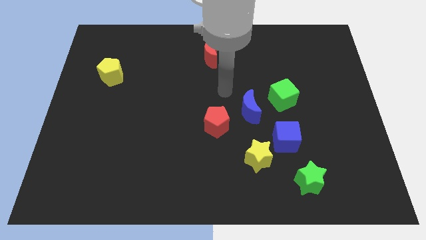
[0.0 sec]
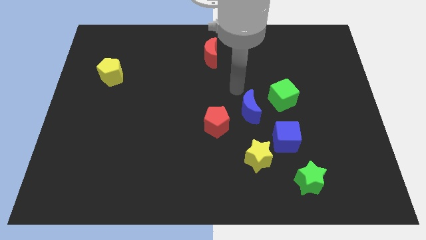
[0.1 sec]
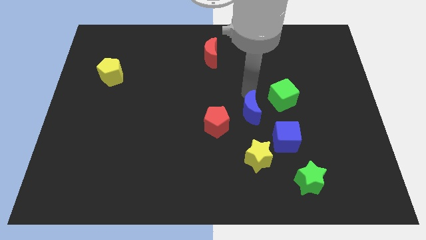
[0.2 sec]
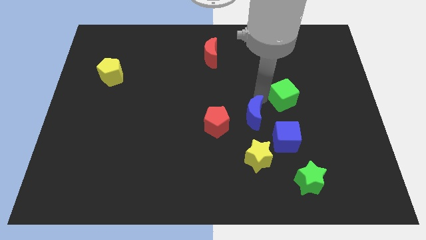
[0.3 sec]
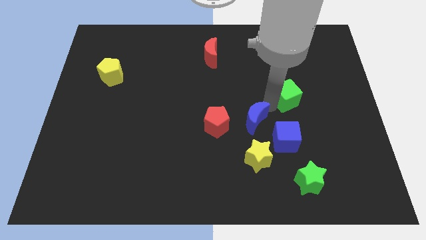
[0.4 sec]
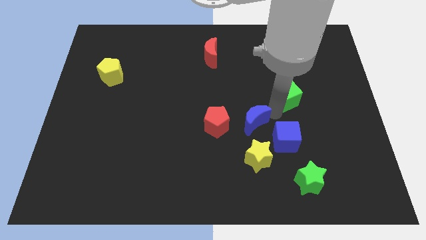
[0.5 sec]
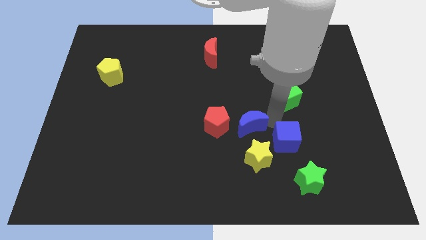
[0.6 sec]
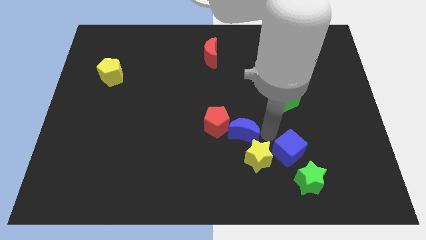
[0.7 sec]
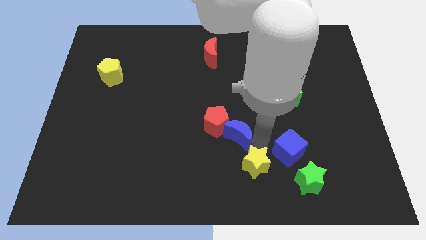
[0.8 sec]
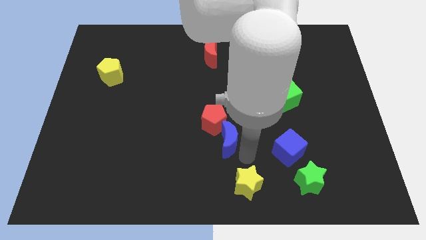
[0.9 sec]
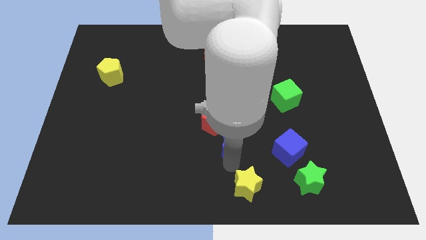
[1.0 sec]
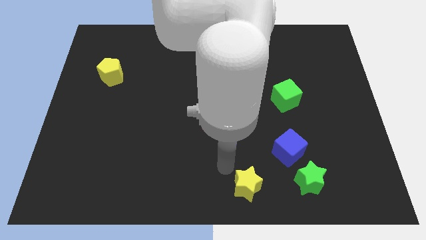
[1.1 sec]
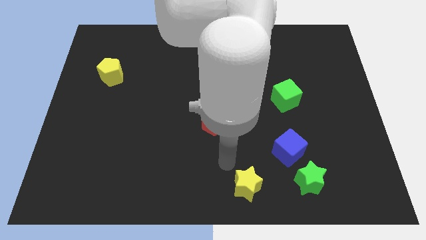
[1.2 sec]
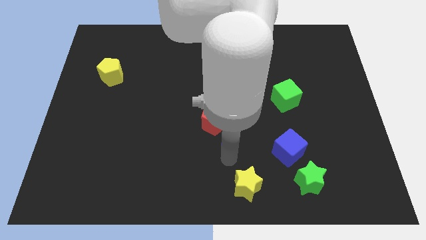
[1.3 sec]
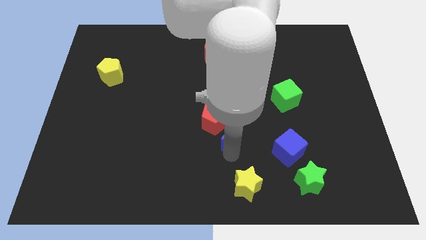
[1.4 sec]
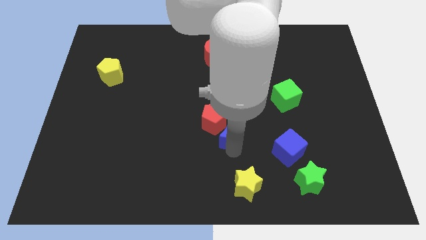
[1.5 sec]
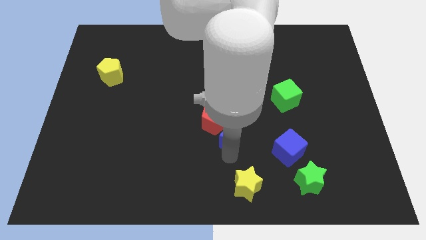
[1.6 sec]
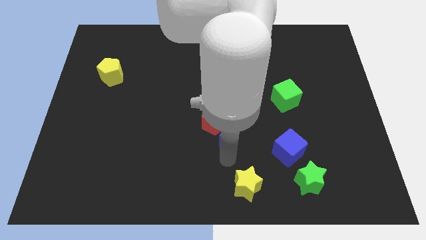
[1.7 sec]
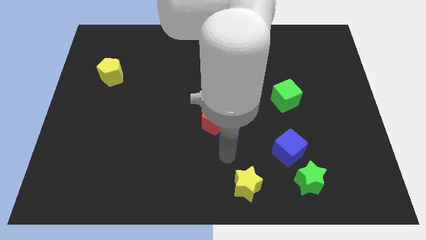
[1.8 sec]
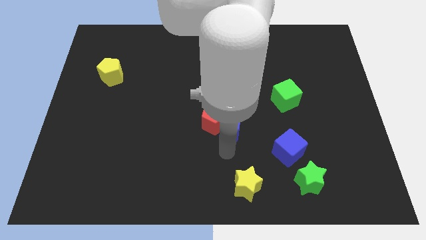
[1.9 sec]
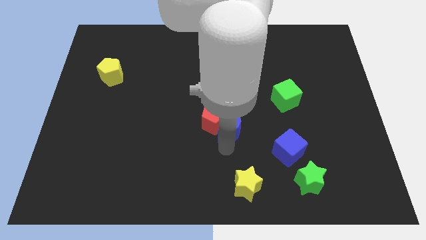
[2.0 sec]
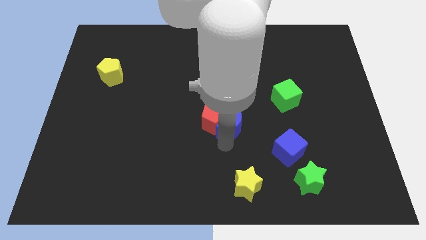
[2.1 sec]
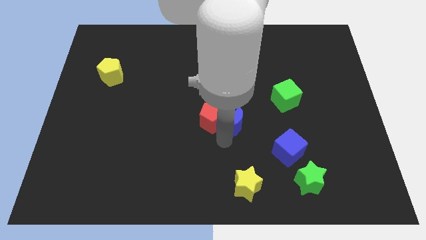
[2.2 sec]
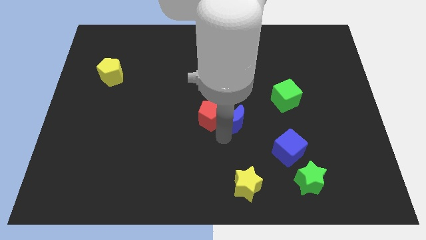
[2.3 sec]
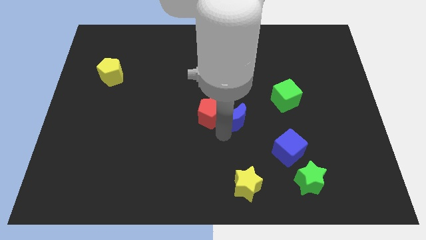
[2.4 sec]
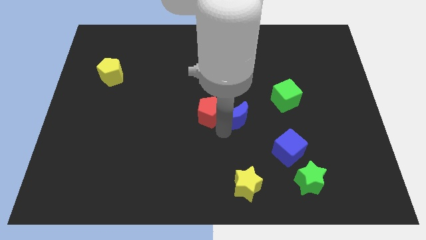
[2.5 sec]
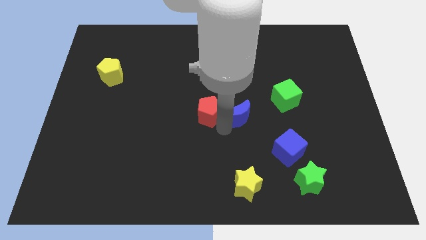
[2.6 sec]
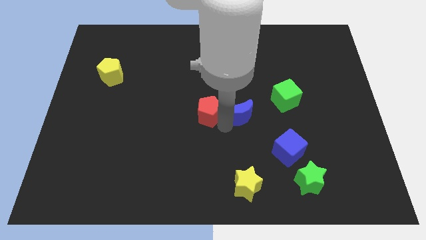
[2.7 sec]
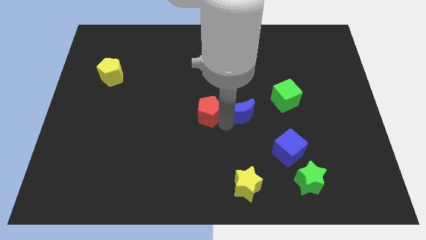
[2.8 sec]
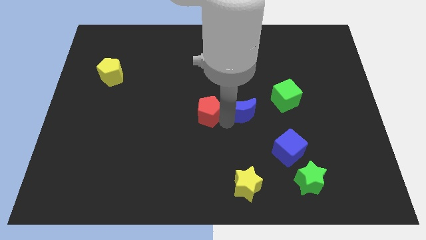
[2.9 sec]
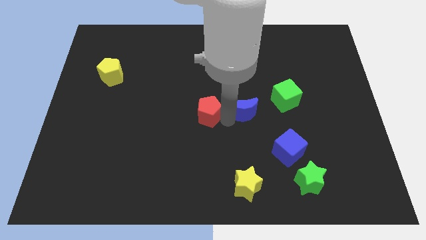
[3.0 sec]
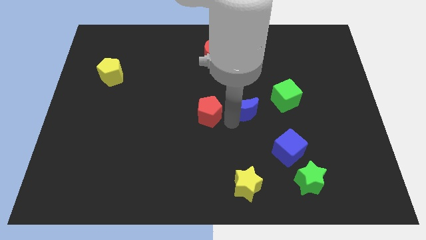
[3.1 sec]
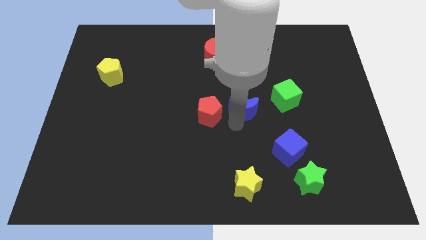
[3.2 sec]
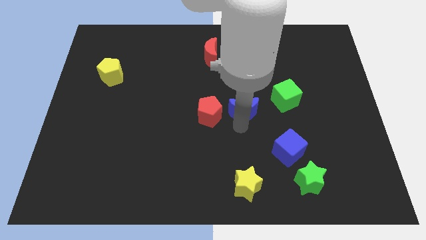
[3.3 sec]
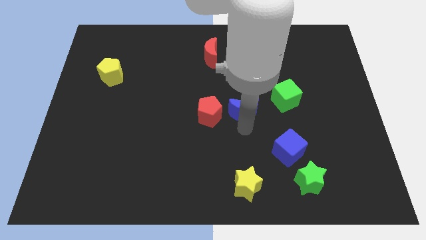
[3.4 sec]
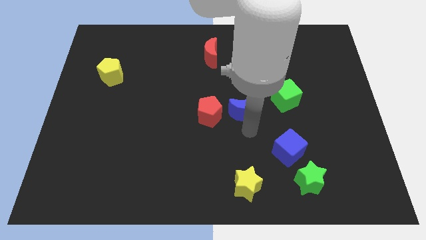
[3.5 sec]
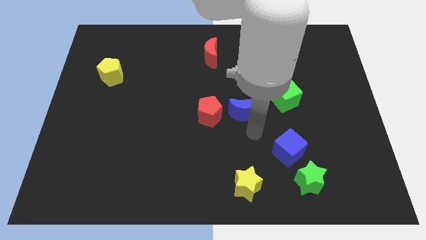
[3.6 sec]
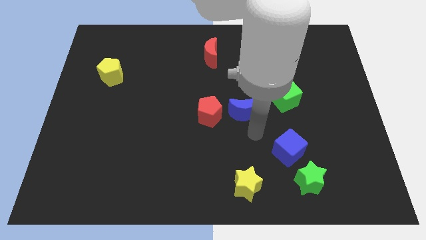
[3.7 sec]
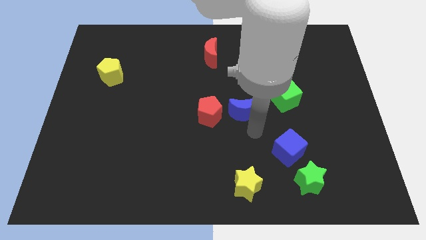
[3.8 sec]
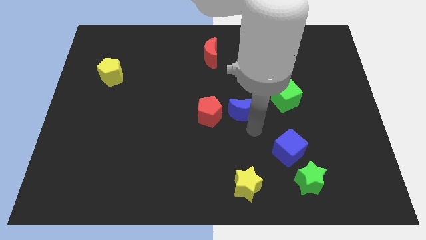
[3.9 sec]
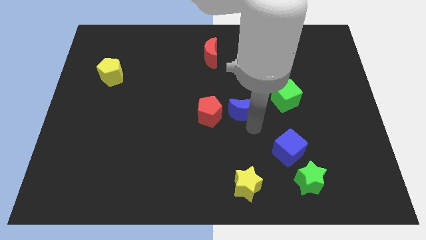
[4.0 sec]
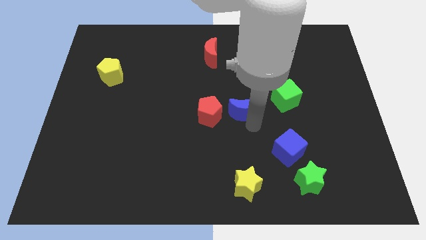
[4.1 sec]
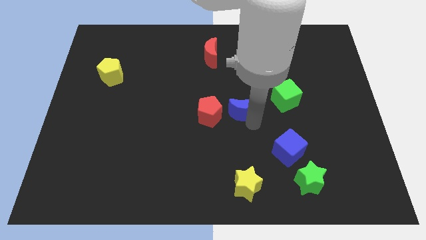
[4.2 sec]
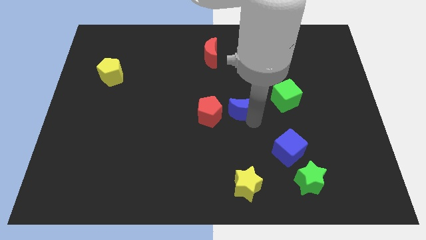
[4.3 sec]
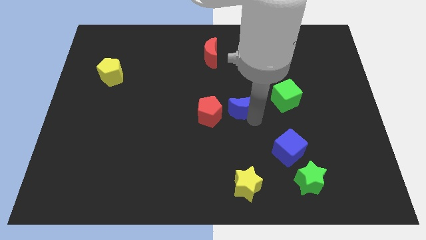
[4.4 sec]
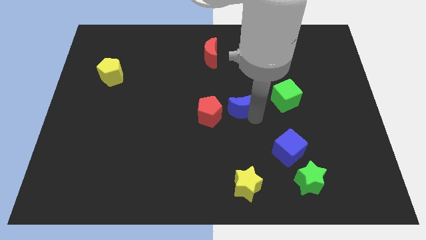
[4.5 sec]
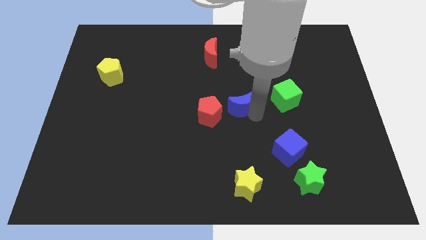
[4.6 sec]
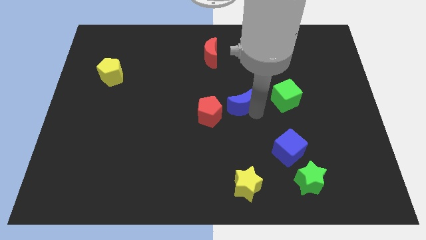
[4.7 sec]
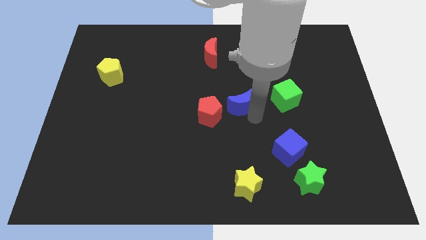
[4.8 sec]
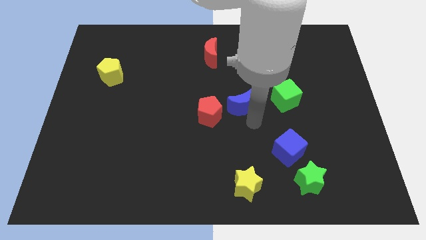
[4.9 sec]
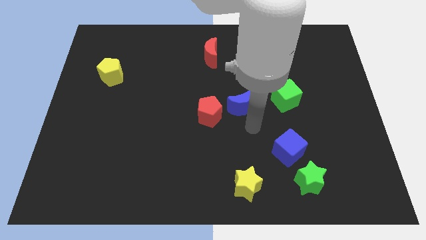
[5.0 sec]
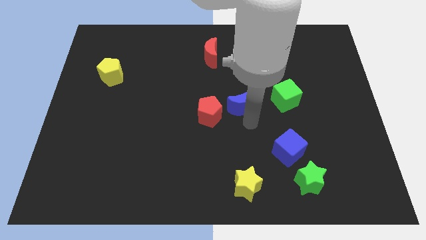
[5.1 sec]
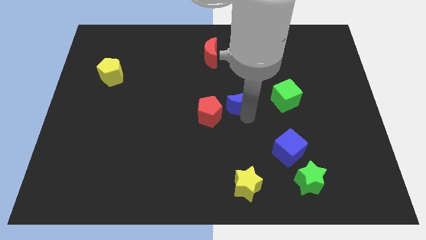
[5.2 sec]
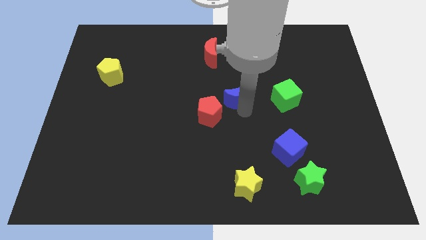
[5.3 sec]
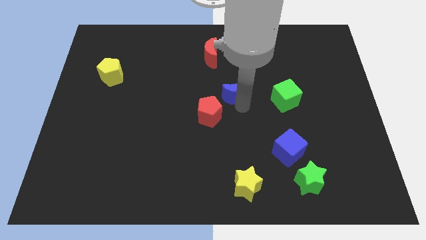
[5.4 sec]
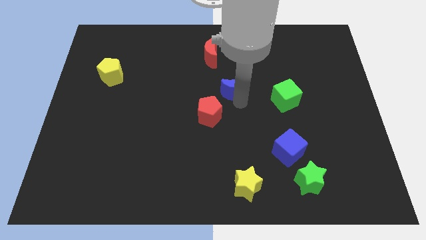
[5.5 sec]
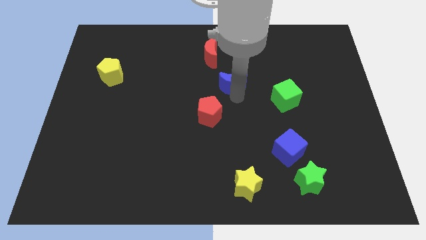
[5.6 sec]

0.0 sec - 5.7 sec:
push the blue moon to the bottom right side of the red moon

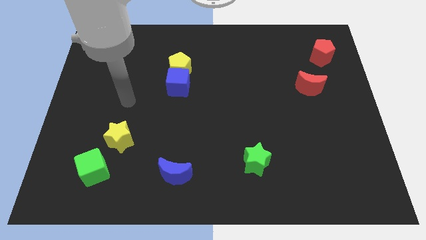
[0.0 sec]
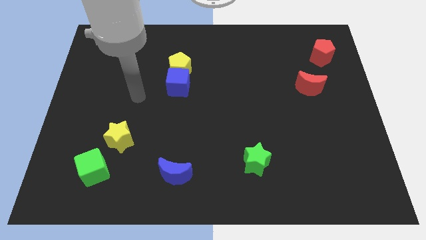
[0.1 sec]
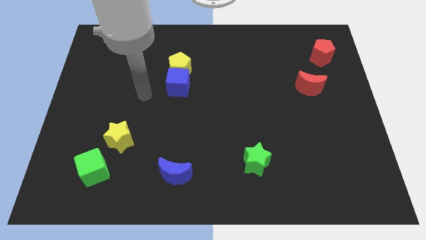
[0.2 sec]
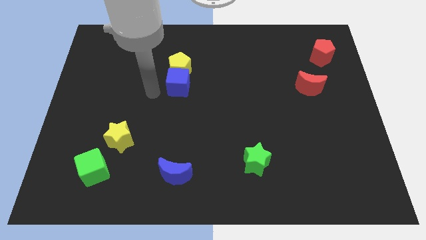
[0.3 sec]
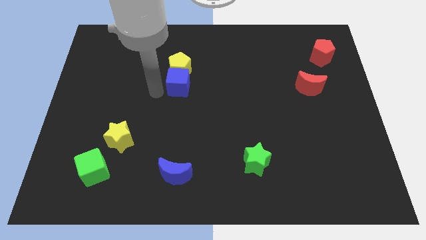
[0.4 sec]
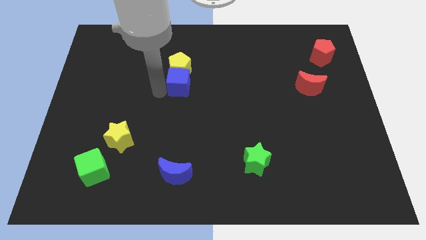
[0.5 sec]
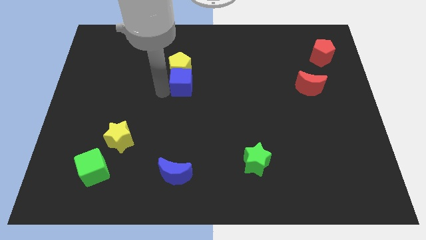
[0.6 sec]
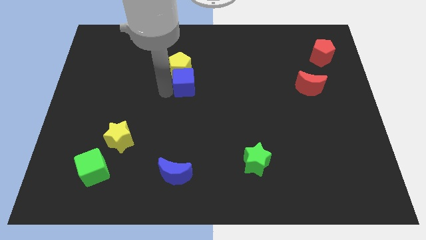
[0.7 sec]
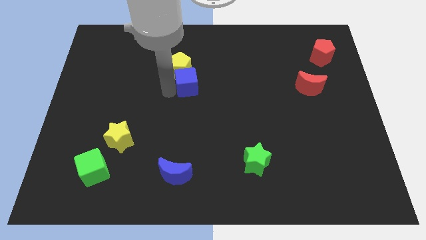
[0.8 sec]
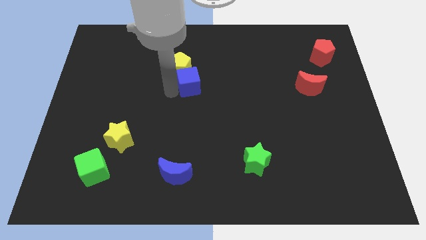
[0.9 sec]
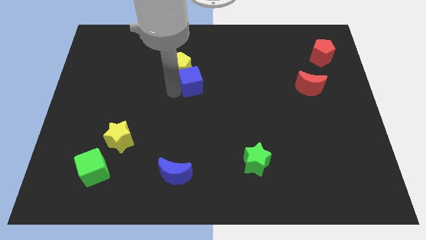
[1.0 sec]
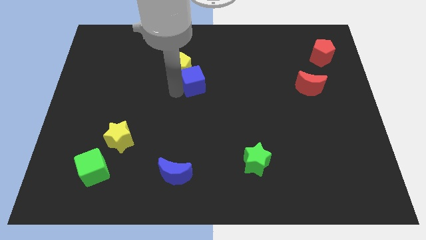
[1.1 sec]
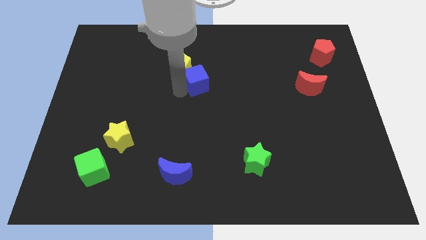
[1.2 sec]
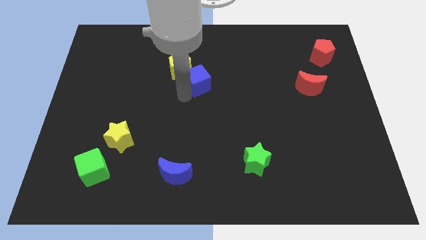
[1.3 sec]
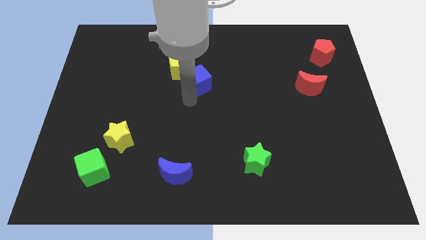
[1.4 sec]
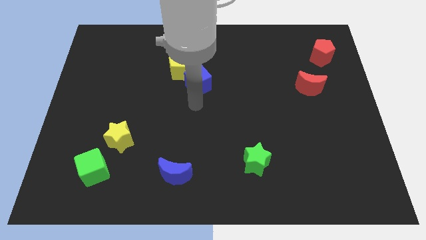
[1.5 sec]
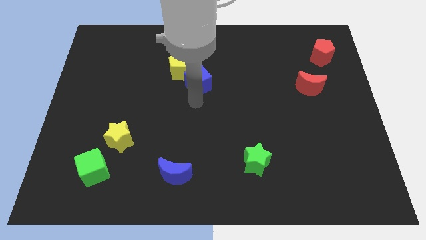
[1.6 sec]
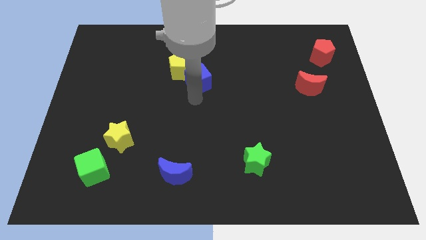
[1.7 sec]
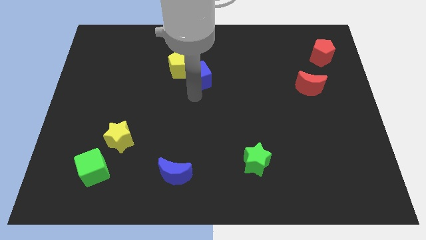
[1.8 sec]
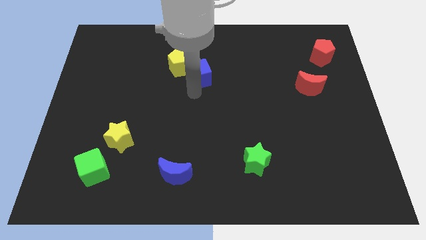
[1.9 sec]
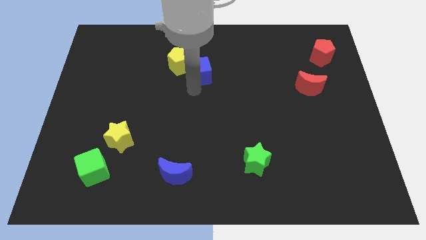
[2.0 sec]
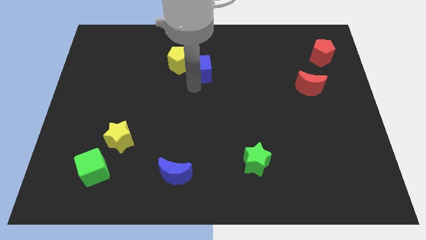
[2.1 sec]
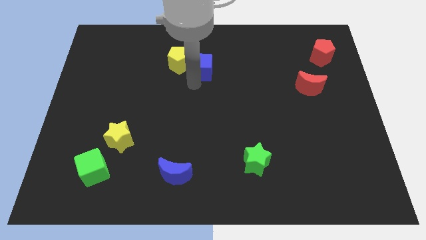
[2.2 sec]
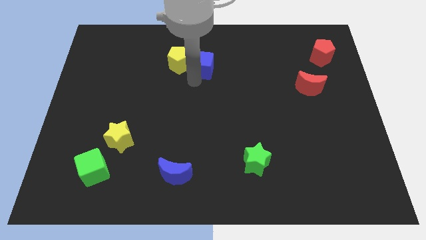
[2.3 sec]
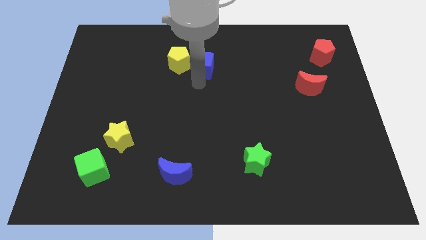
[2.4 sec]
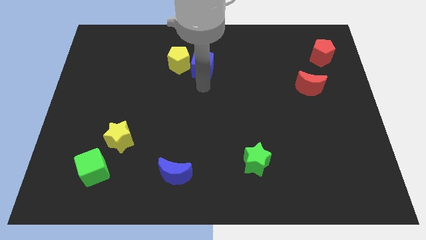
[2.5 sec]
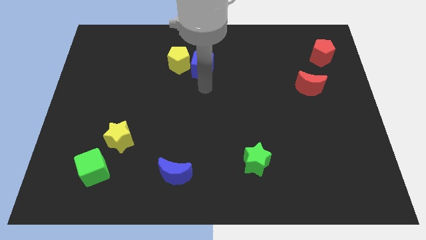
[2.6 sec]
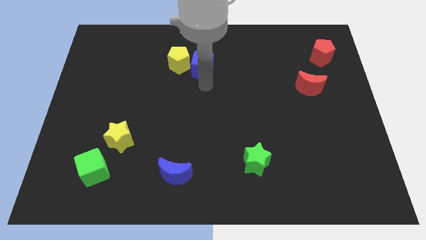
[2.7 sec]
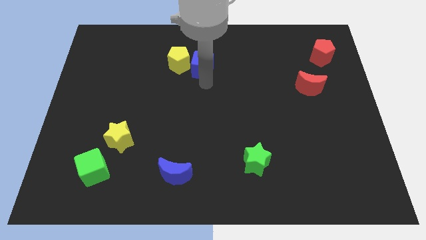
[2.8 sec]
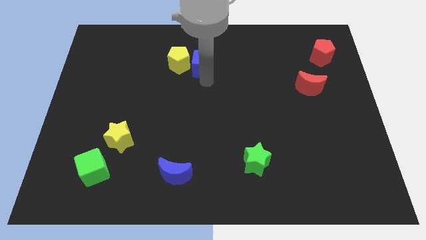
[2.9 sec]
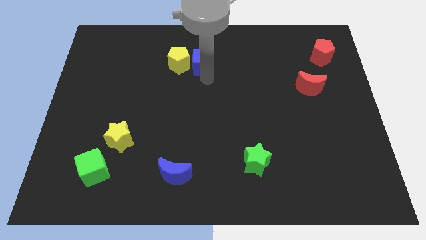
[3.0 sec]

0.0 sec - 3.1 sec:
push the blue cube diagonally up and to the right of the yellow pentagon
